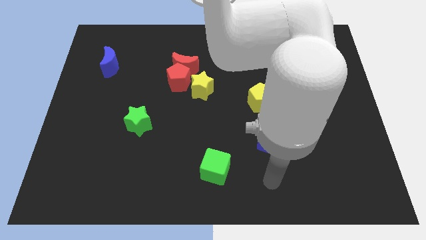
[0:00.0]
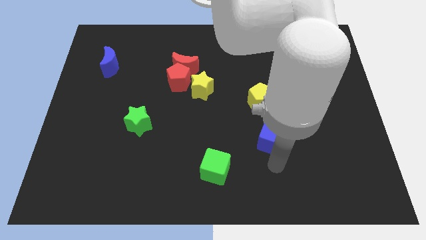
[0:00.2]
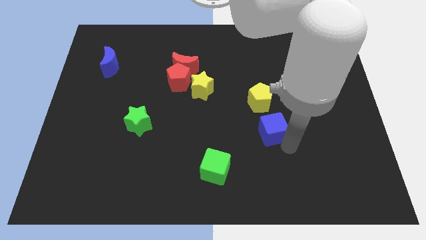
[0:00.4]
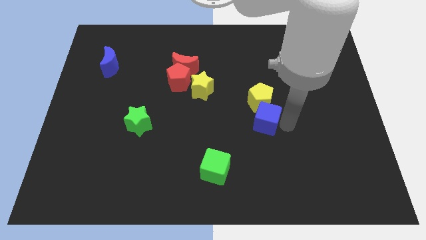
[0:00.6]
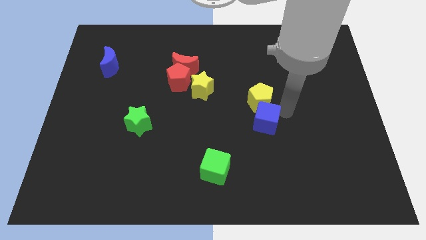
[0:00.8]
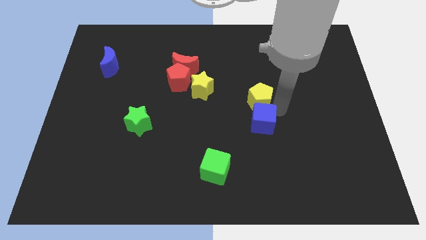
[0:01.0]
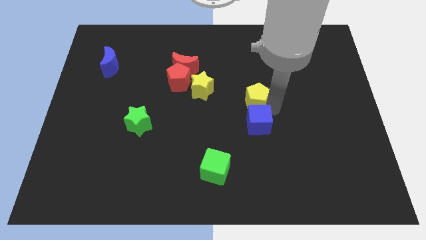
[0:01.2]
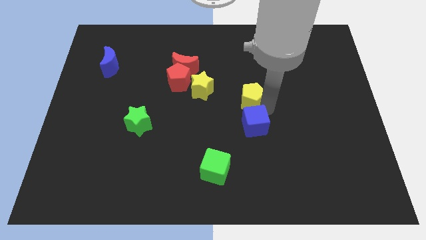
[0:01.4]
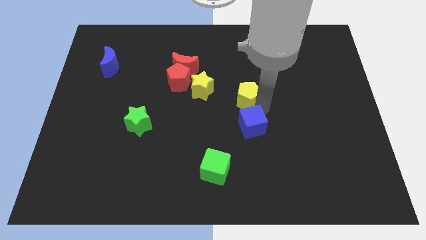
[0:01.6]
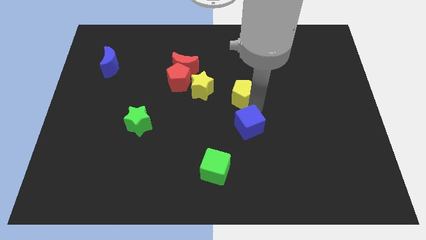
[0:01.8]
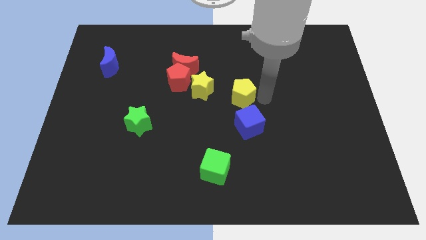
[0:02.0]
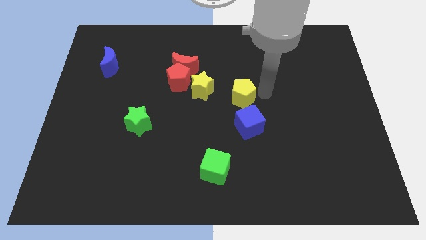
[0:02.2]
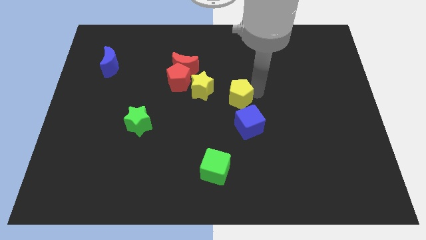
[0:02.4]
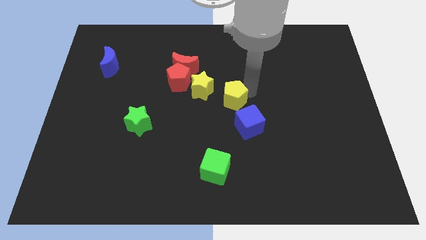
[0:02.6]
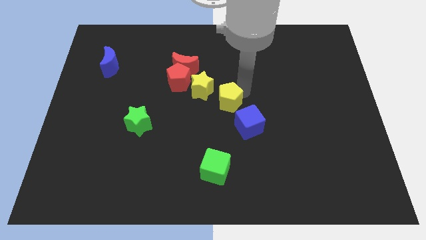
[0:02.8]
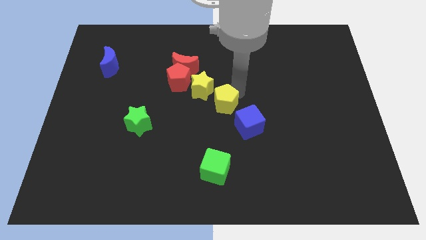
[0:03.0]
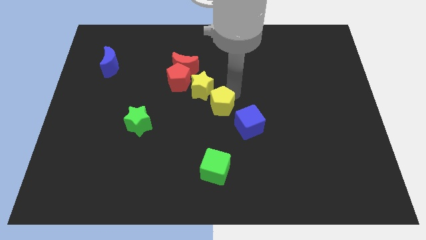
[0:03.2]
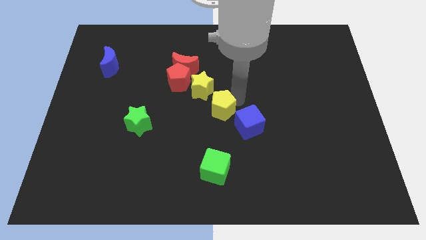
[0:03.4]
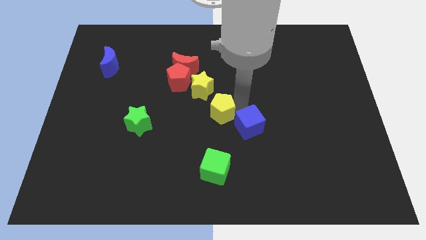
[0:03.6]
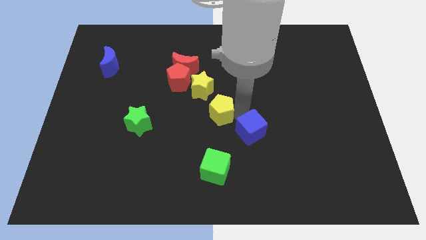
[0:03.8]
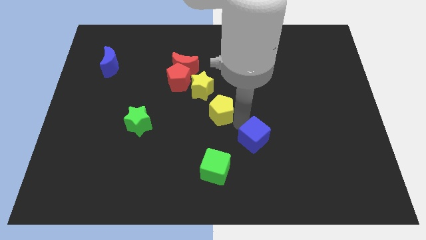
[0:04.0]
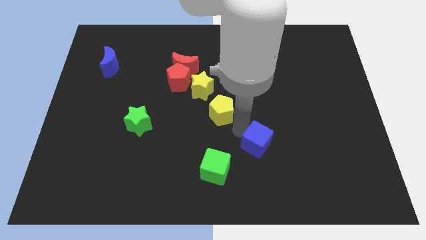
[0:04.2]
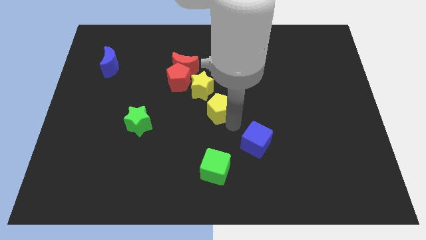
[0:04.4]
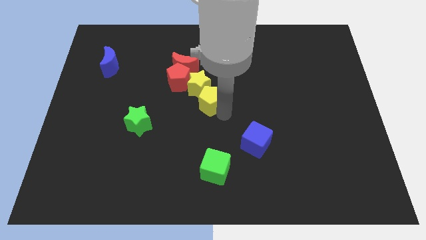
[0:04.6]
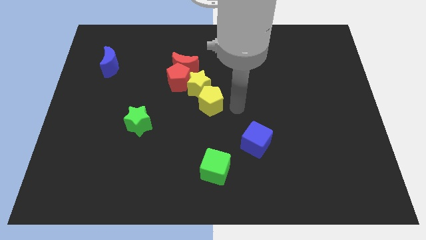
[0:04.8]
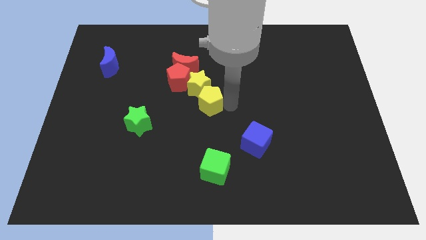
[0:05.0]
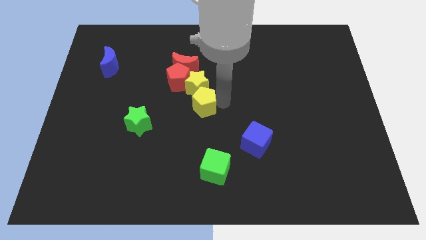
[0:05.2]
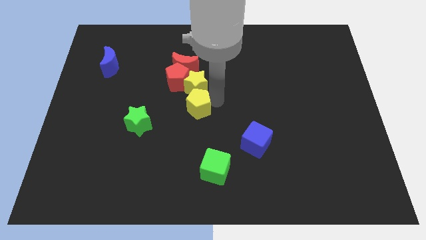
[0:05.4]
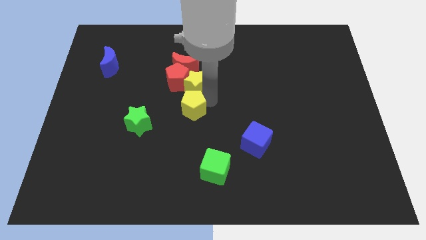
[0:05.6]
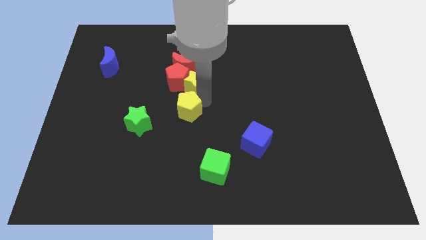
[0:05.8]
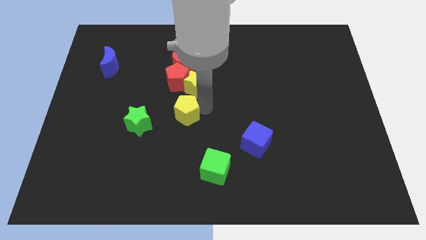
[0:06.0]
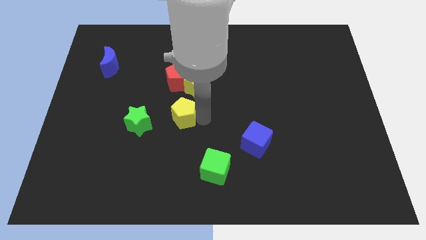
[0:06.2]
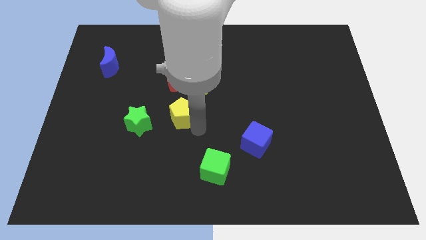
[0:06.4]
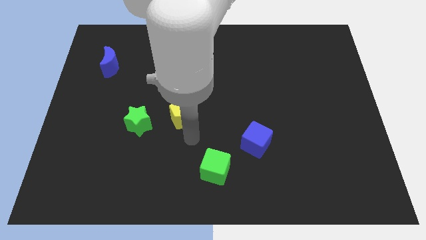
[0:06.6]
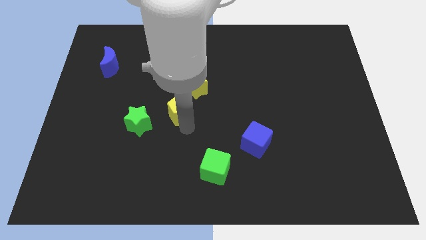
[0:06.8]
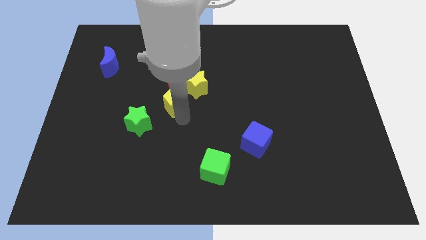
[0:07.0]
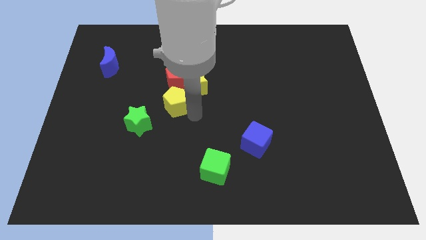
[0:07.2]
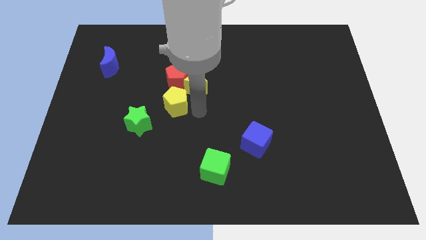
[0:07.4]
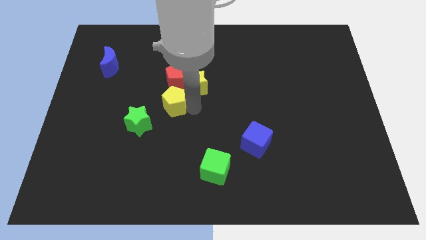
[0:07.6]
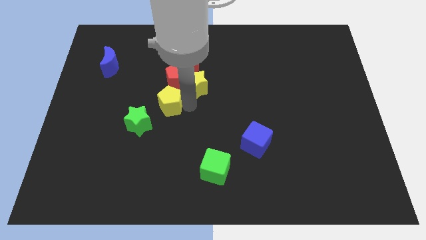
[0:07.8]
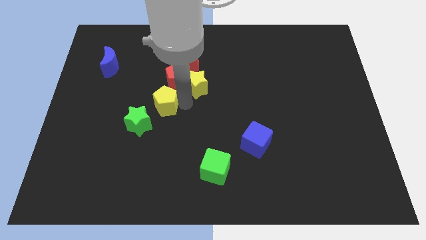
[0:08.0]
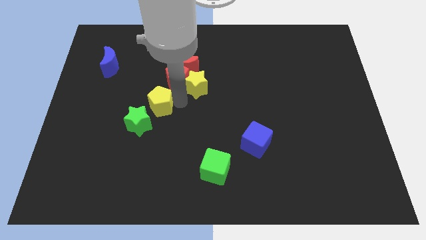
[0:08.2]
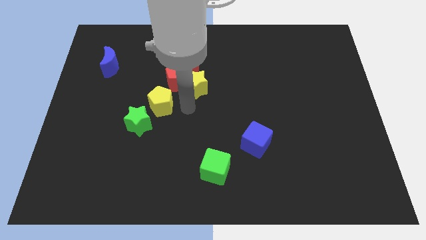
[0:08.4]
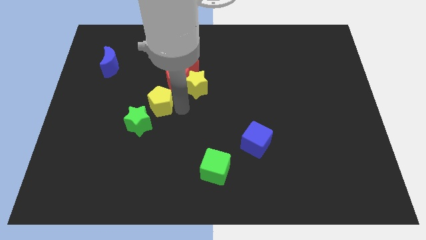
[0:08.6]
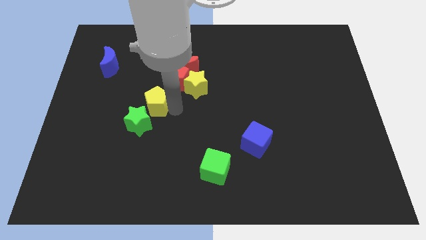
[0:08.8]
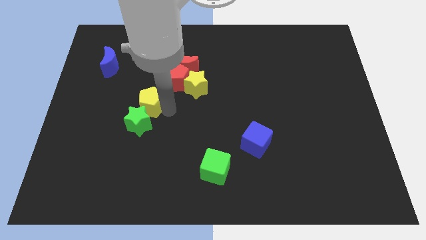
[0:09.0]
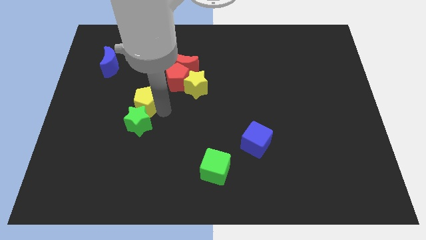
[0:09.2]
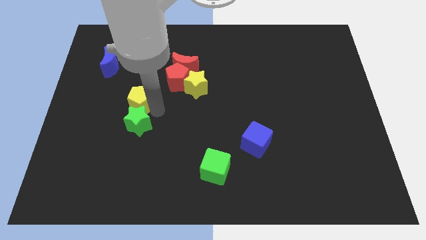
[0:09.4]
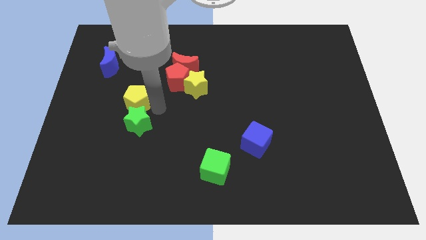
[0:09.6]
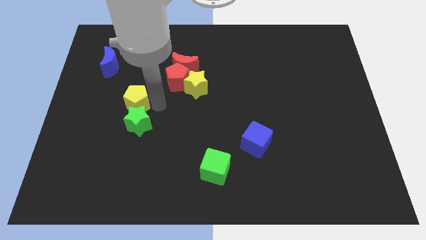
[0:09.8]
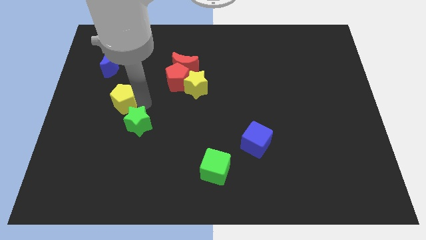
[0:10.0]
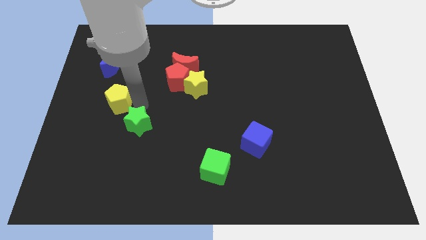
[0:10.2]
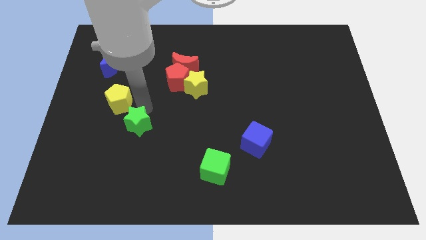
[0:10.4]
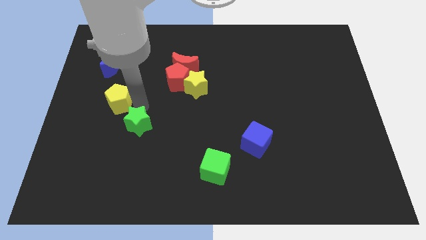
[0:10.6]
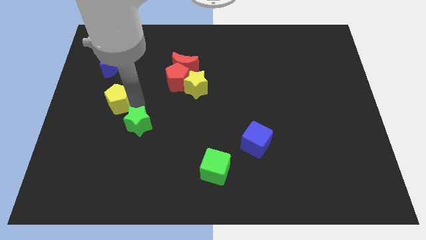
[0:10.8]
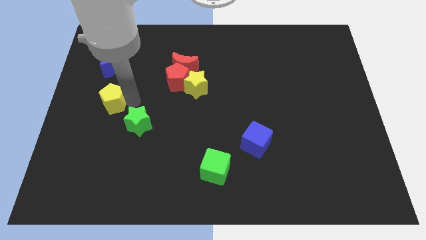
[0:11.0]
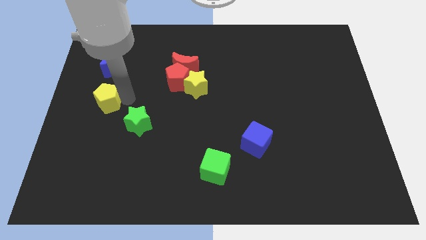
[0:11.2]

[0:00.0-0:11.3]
move the yellow pentagon to the center left

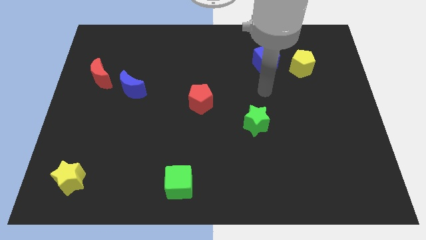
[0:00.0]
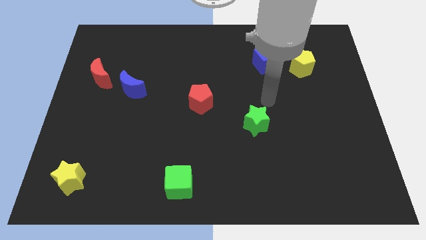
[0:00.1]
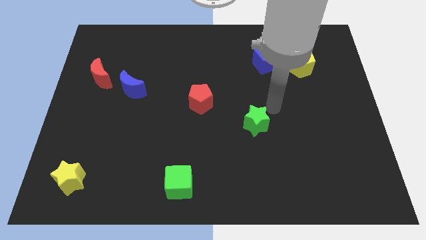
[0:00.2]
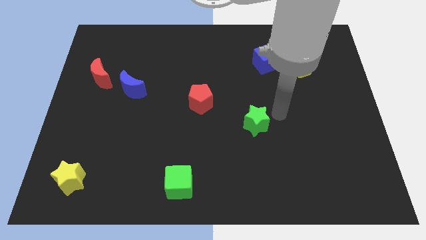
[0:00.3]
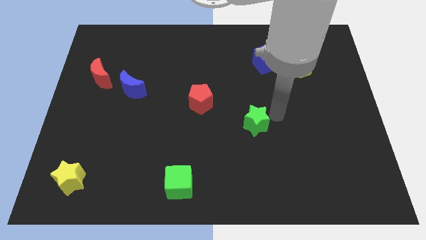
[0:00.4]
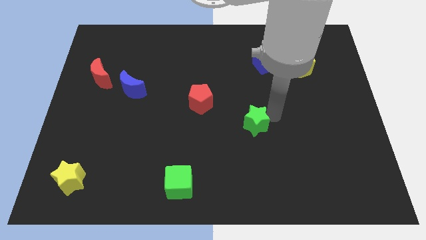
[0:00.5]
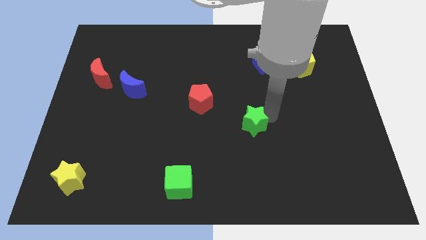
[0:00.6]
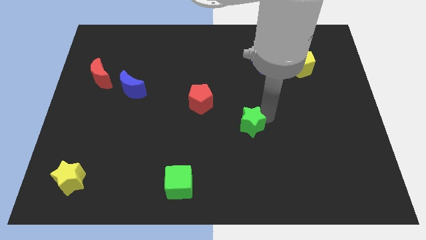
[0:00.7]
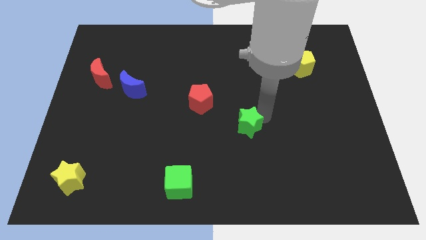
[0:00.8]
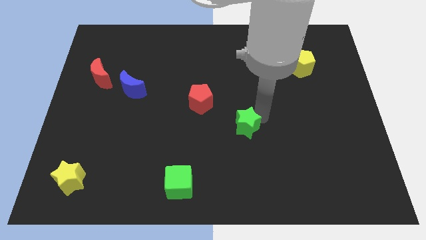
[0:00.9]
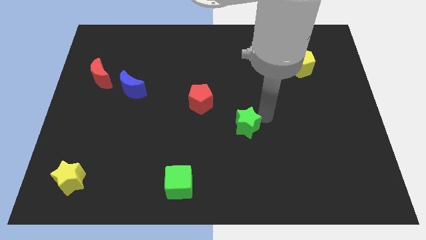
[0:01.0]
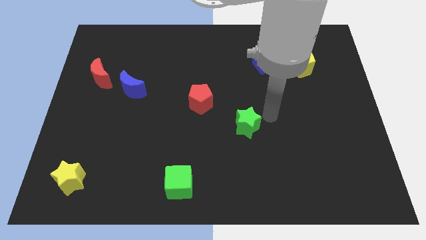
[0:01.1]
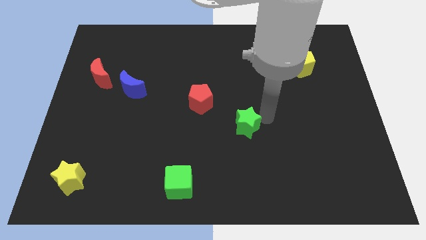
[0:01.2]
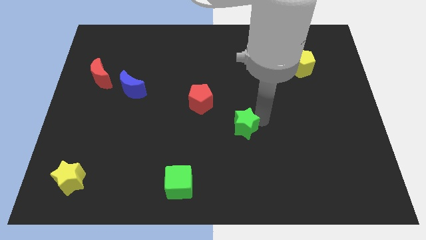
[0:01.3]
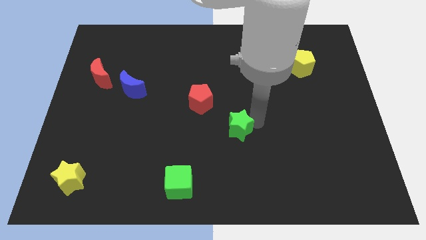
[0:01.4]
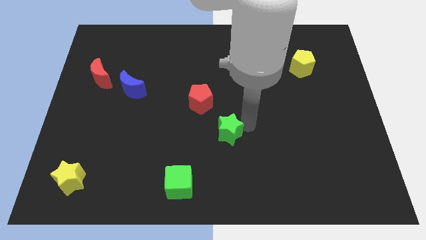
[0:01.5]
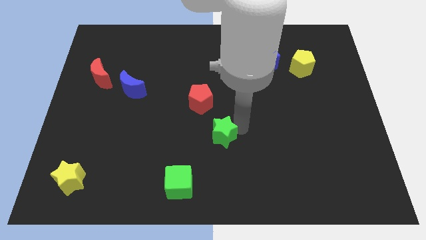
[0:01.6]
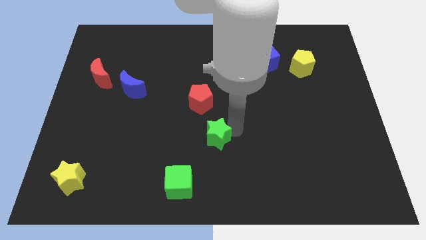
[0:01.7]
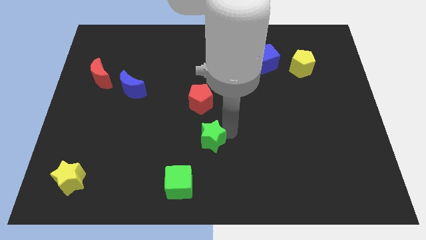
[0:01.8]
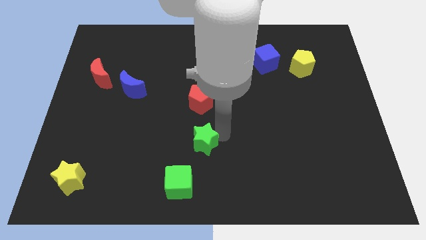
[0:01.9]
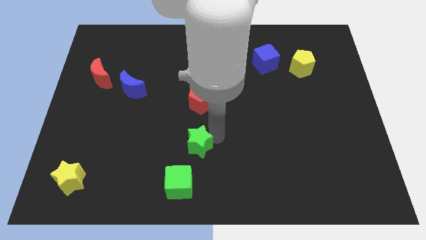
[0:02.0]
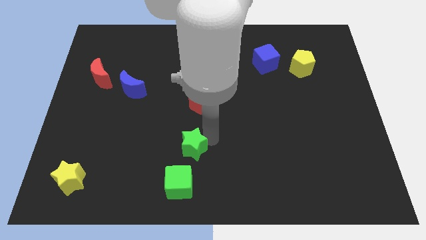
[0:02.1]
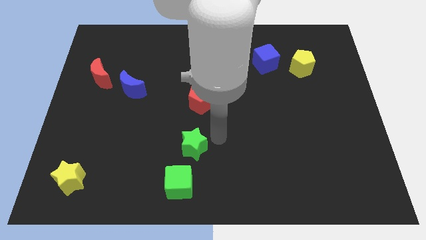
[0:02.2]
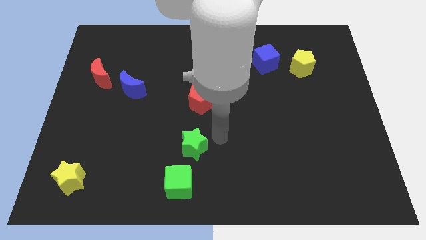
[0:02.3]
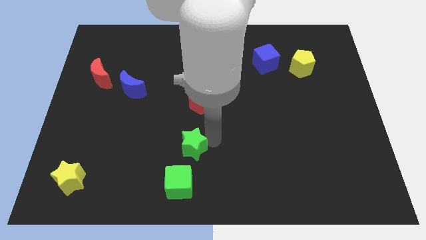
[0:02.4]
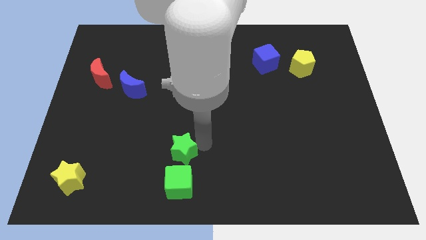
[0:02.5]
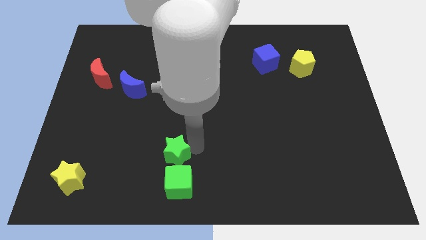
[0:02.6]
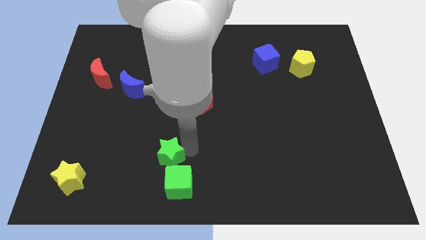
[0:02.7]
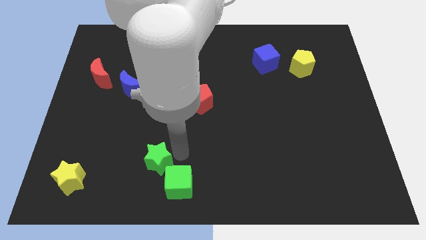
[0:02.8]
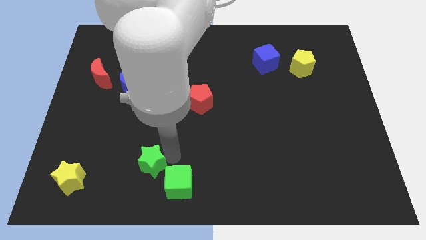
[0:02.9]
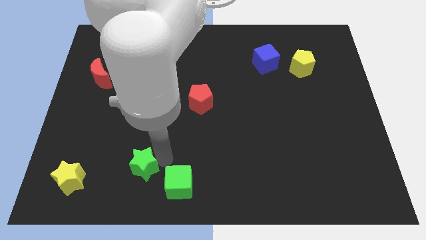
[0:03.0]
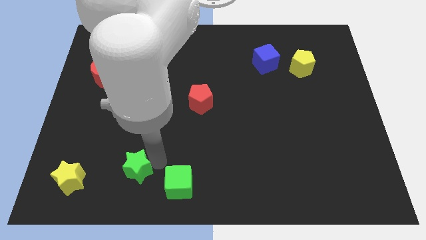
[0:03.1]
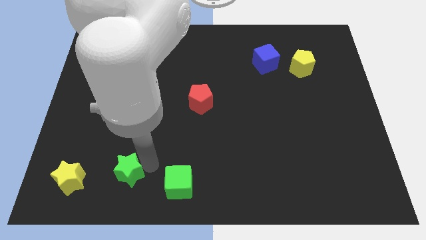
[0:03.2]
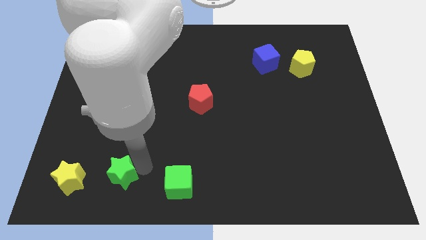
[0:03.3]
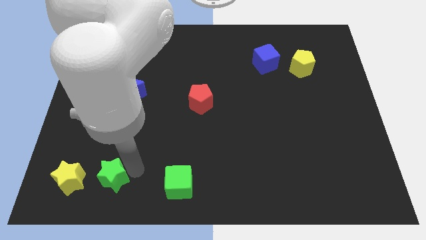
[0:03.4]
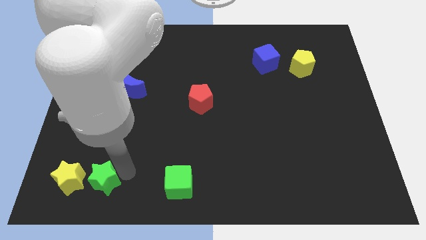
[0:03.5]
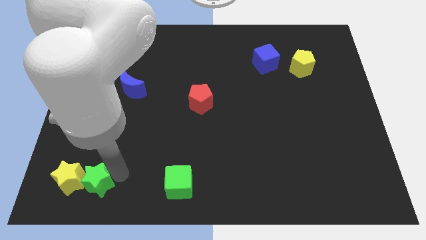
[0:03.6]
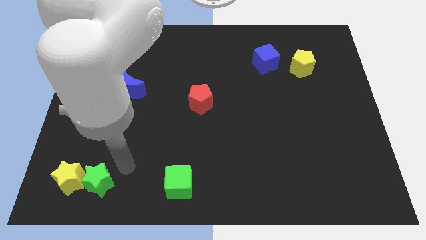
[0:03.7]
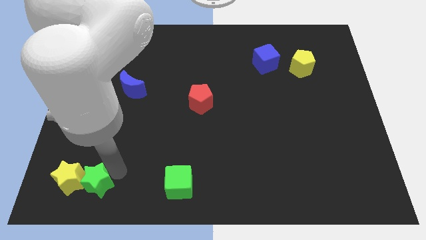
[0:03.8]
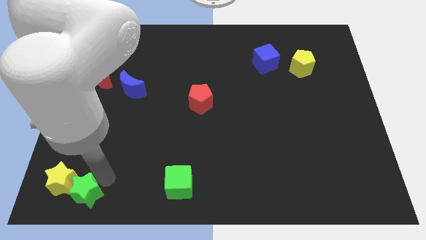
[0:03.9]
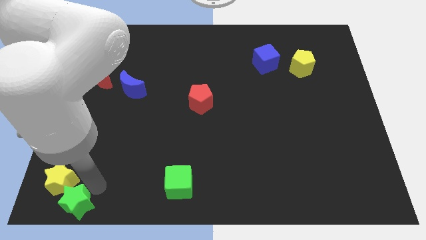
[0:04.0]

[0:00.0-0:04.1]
put the green star to the bottom left corner
